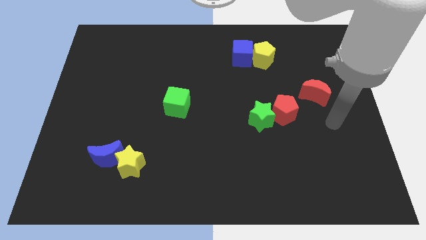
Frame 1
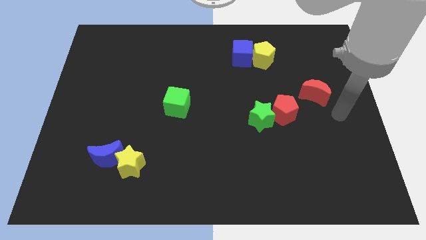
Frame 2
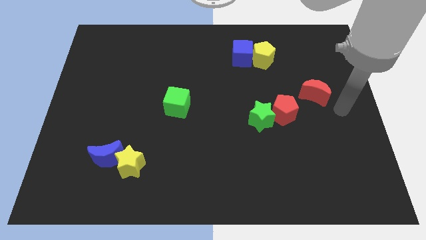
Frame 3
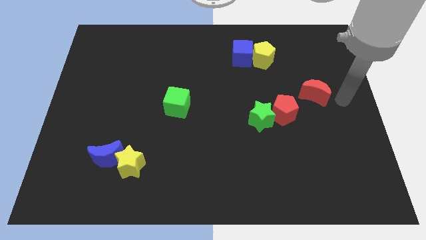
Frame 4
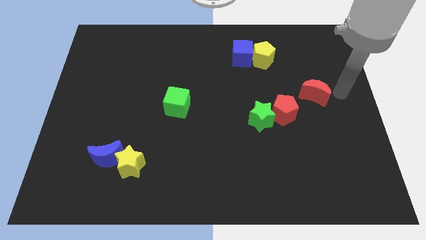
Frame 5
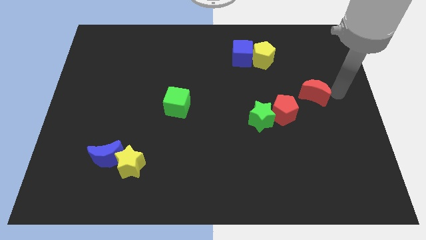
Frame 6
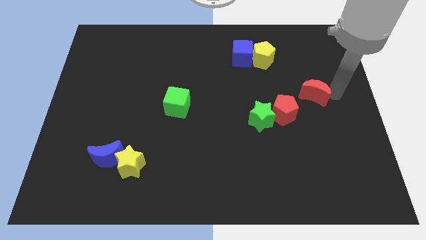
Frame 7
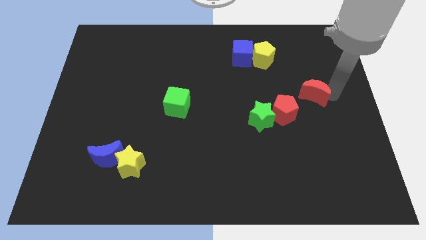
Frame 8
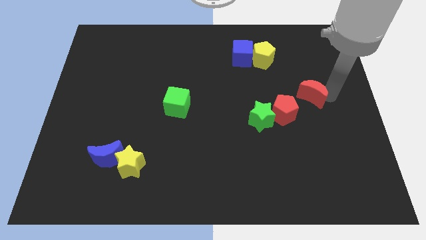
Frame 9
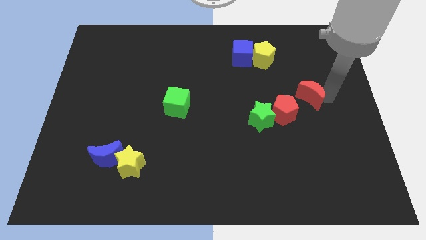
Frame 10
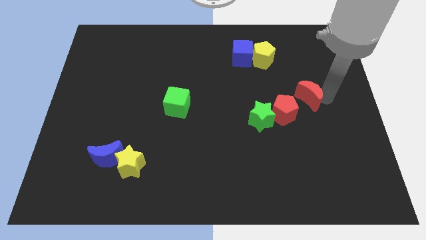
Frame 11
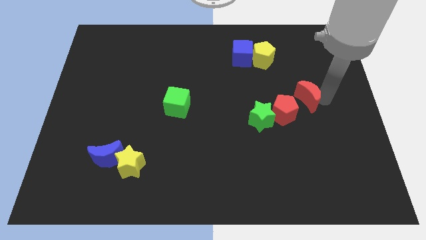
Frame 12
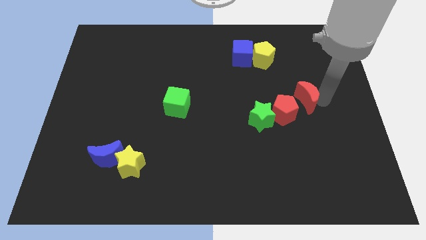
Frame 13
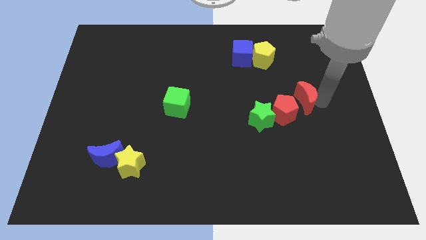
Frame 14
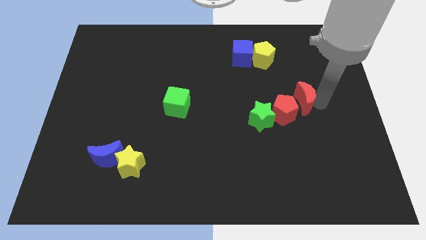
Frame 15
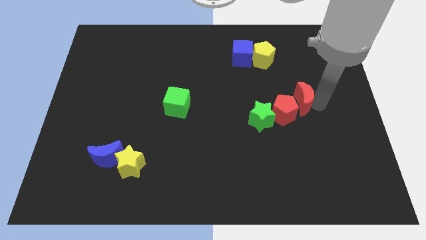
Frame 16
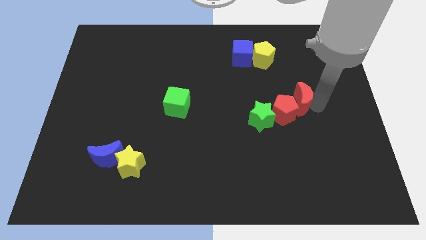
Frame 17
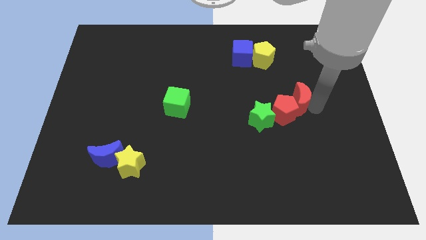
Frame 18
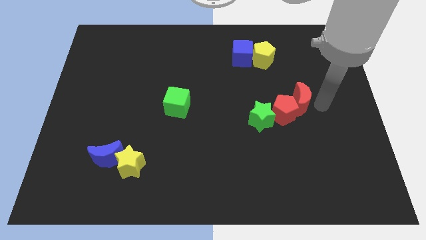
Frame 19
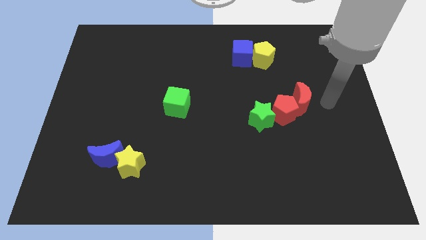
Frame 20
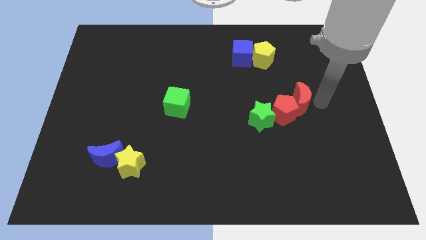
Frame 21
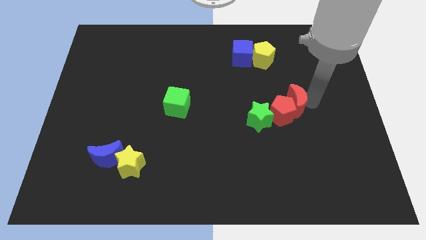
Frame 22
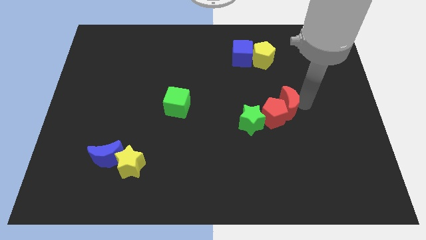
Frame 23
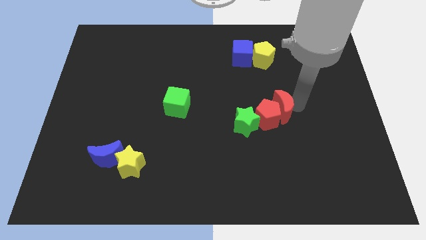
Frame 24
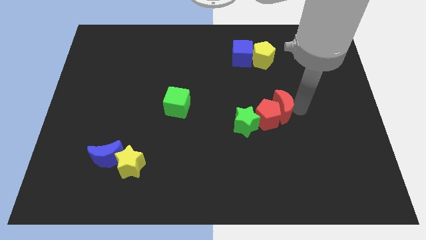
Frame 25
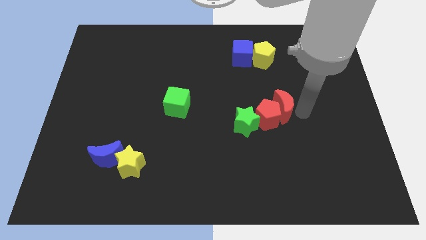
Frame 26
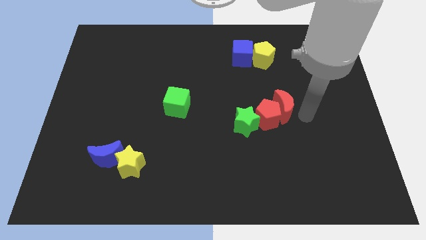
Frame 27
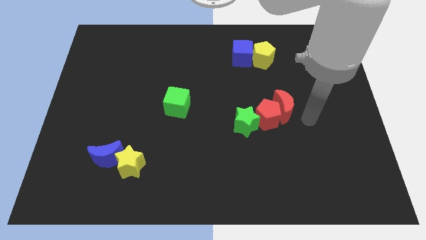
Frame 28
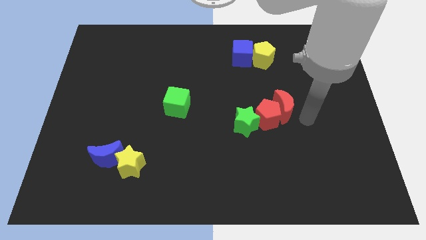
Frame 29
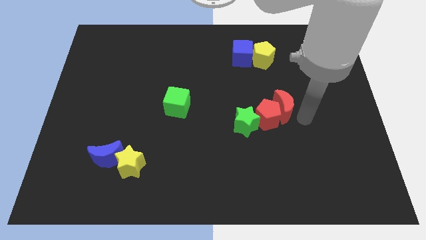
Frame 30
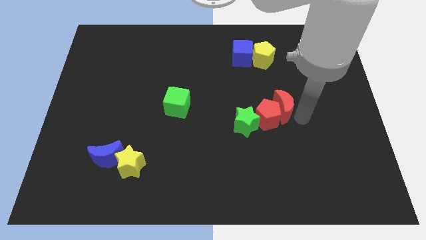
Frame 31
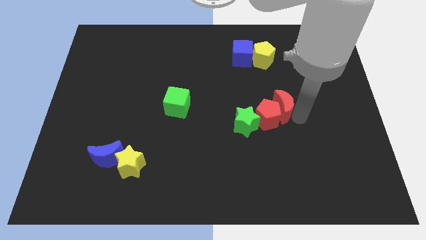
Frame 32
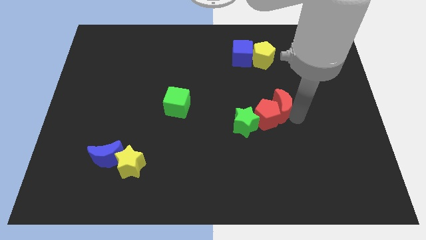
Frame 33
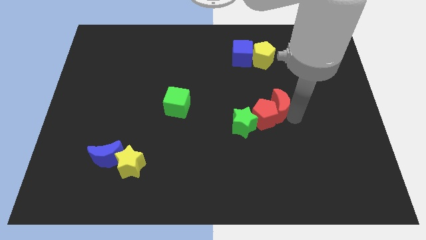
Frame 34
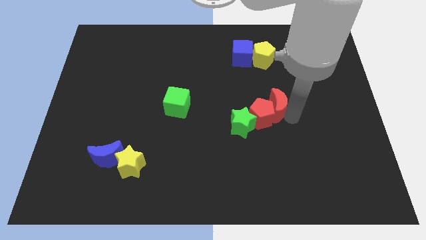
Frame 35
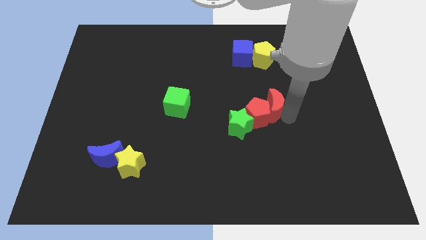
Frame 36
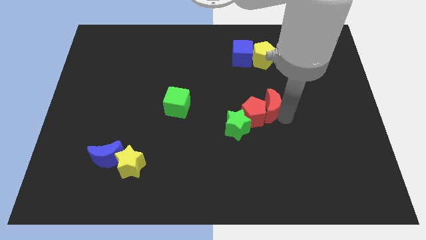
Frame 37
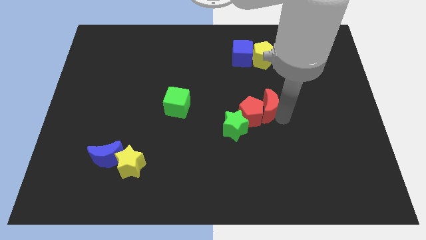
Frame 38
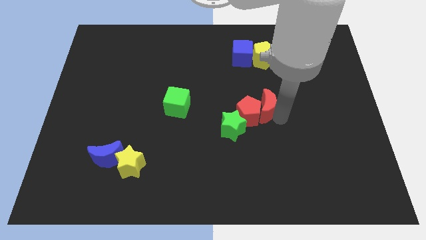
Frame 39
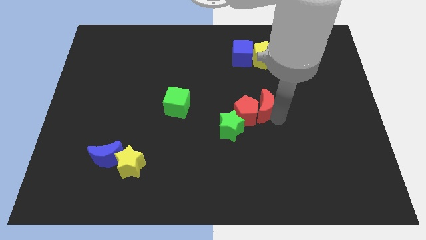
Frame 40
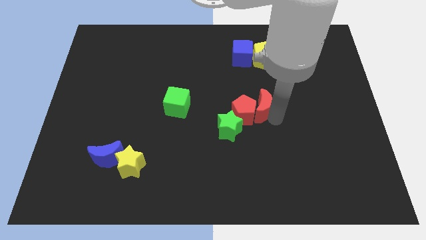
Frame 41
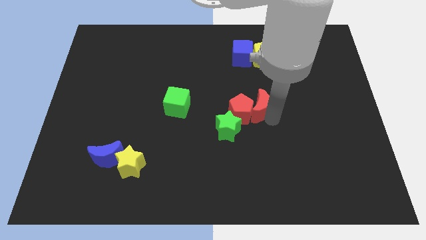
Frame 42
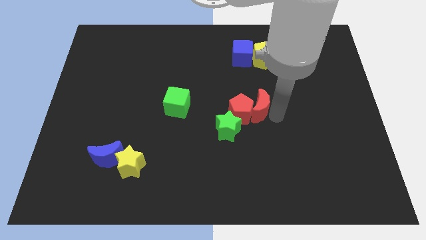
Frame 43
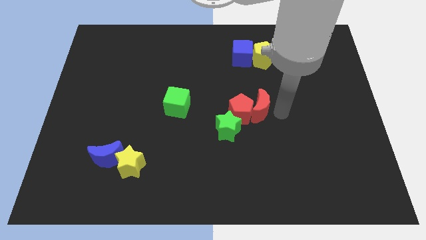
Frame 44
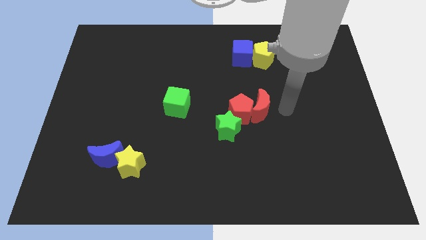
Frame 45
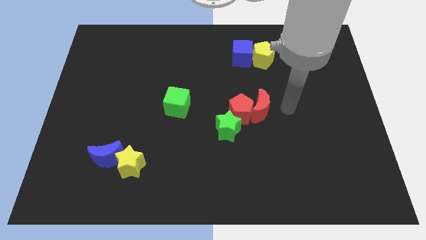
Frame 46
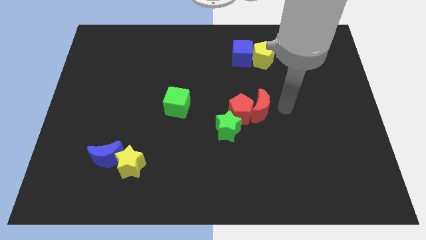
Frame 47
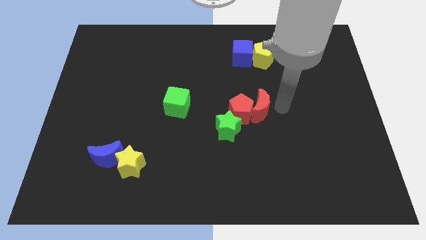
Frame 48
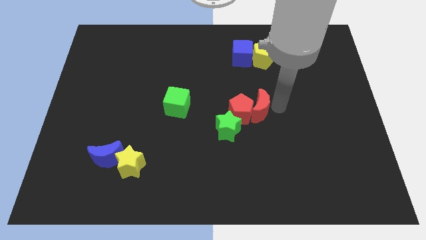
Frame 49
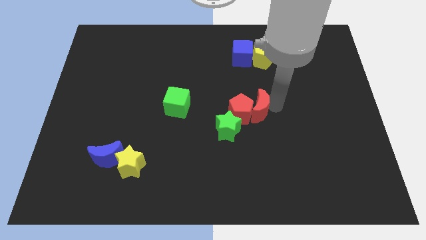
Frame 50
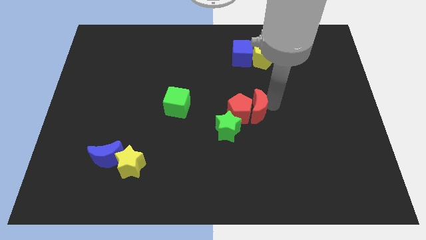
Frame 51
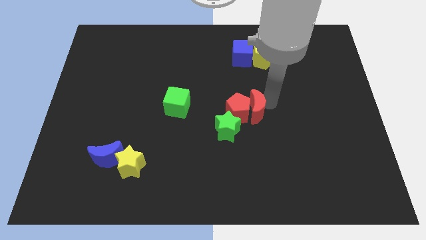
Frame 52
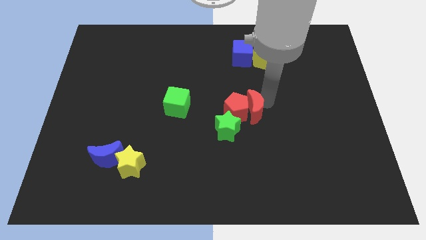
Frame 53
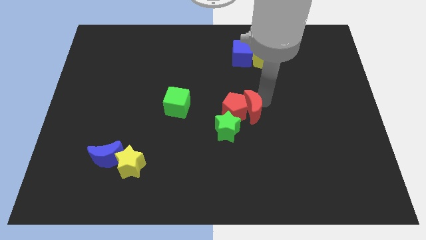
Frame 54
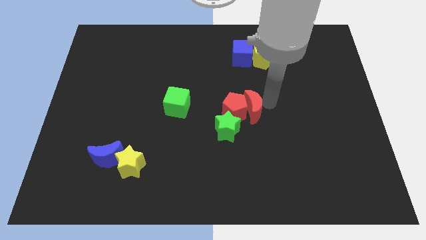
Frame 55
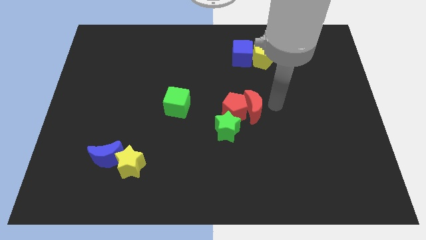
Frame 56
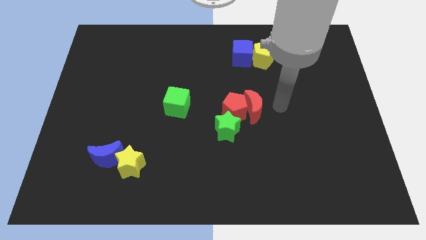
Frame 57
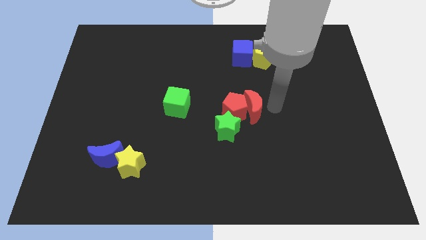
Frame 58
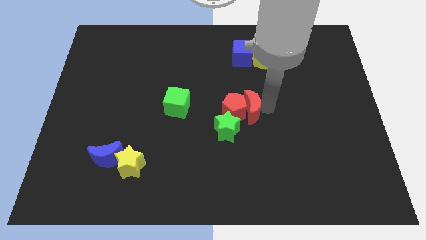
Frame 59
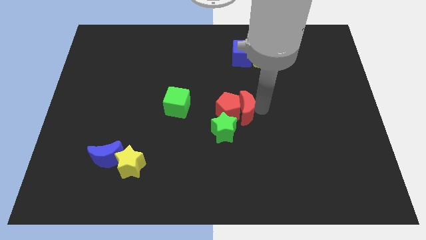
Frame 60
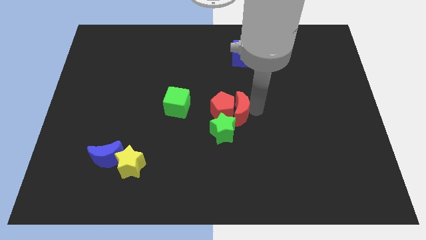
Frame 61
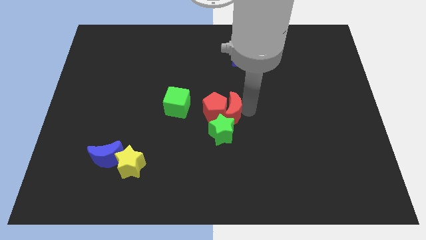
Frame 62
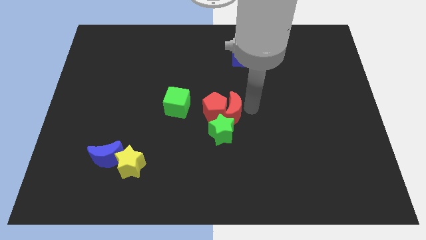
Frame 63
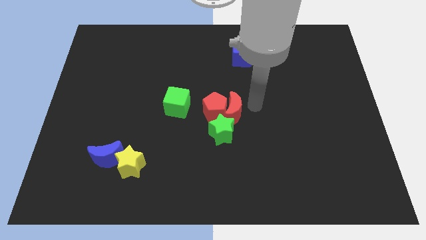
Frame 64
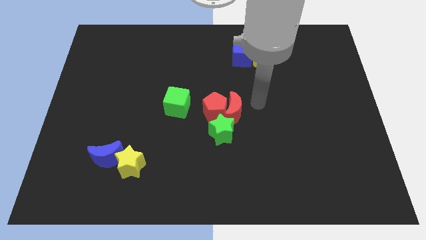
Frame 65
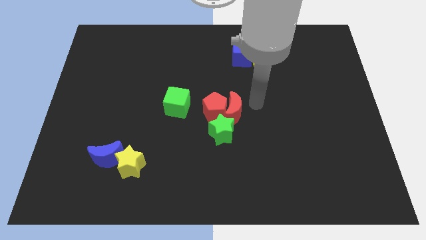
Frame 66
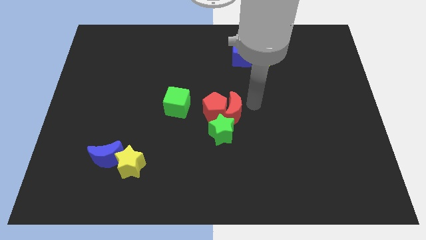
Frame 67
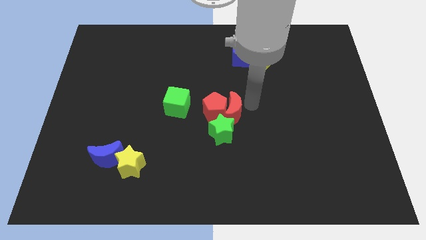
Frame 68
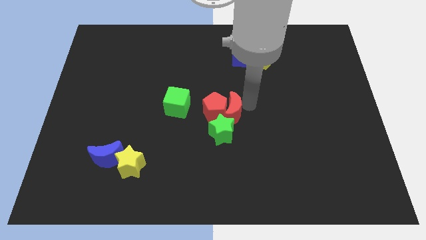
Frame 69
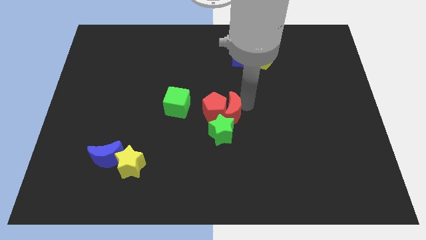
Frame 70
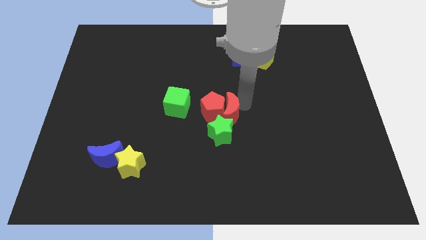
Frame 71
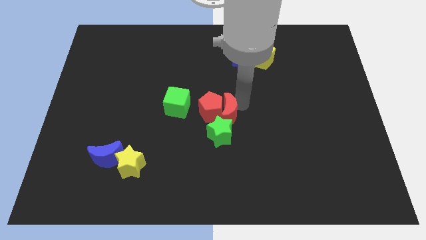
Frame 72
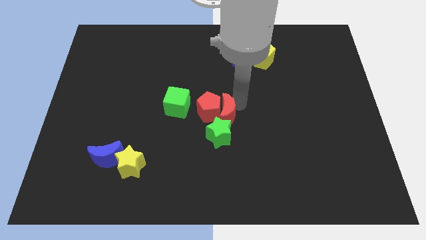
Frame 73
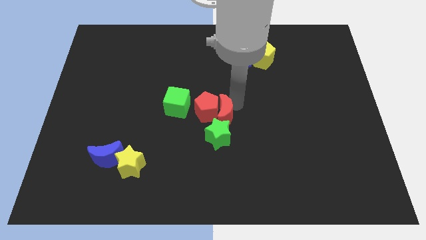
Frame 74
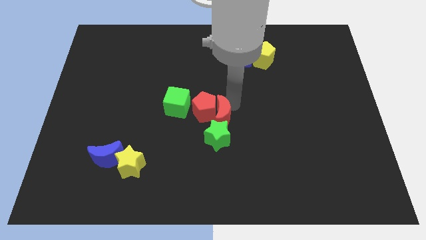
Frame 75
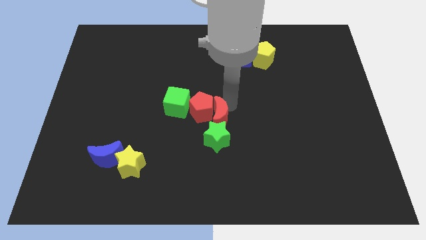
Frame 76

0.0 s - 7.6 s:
put the red moon to the bottom right of the green cube
